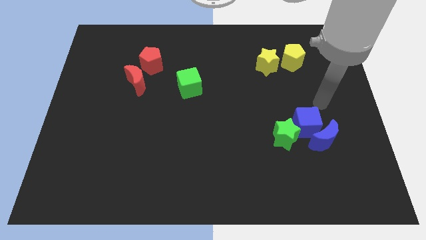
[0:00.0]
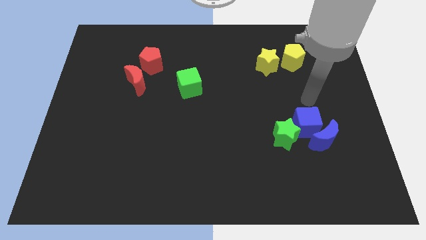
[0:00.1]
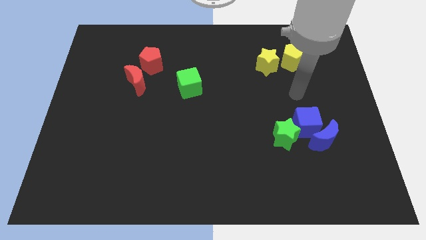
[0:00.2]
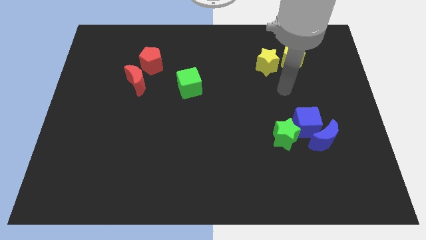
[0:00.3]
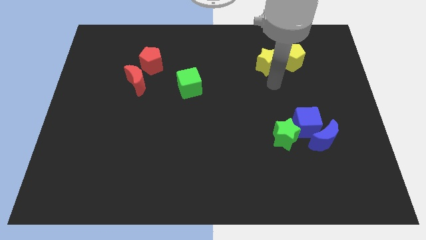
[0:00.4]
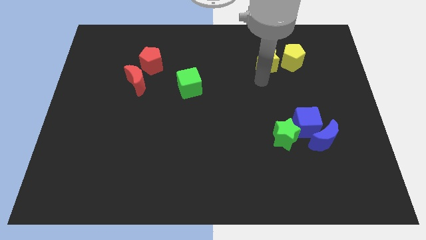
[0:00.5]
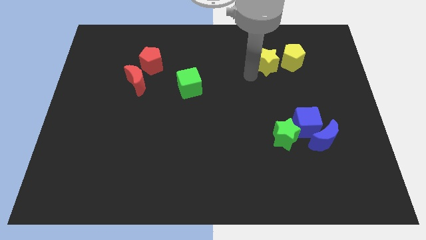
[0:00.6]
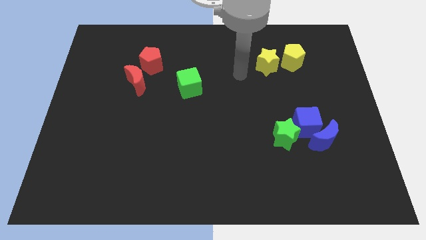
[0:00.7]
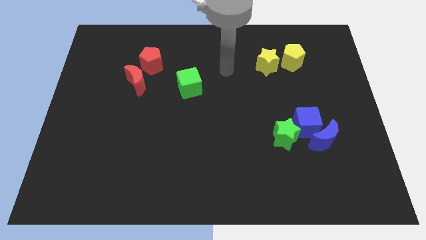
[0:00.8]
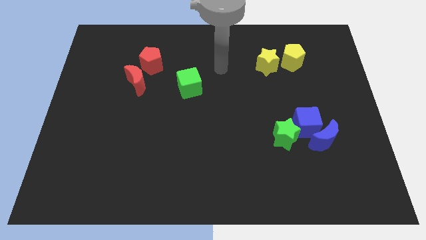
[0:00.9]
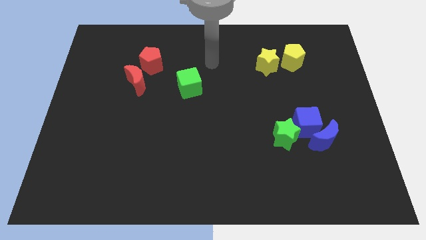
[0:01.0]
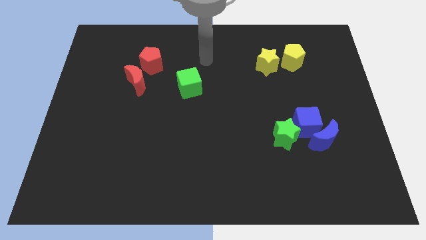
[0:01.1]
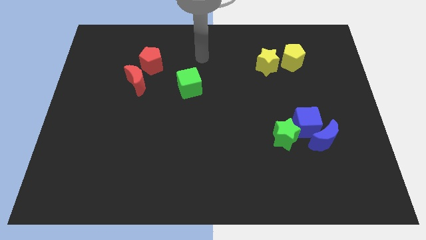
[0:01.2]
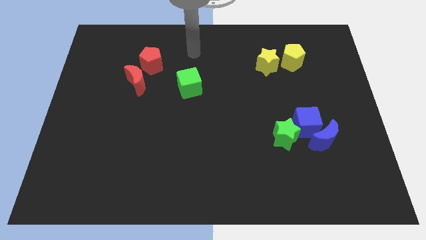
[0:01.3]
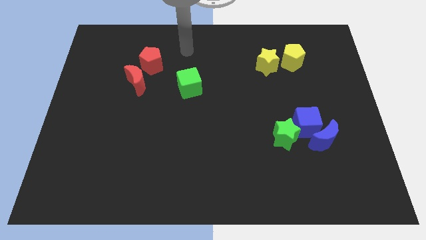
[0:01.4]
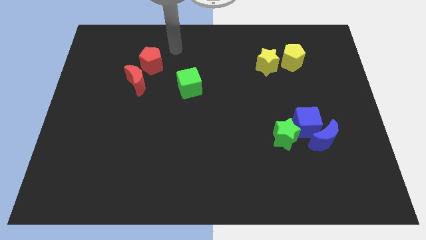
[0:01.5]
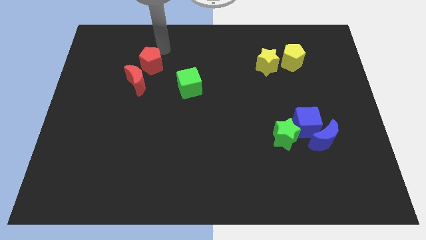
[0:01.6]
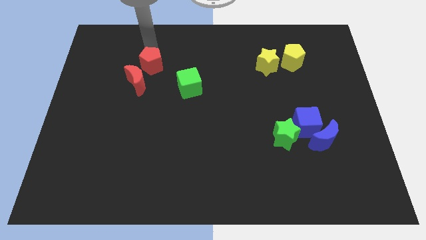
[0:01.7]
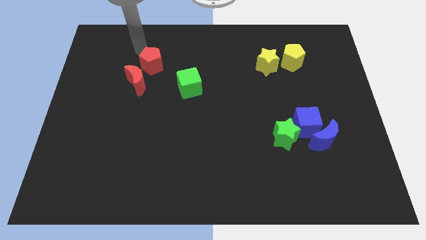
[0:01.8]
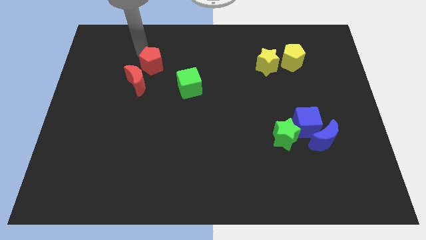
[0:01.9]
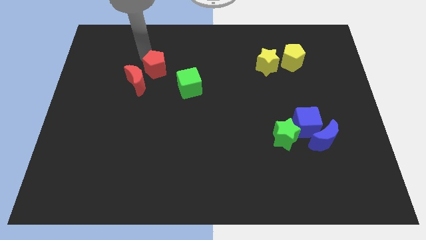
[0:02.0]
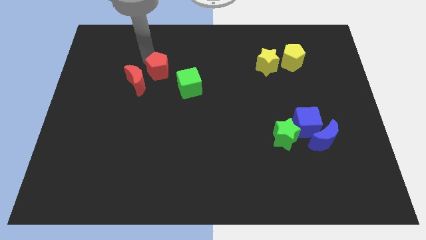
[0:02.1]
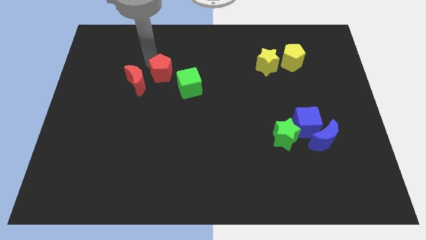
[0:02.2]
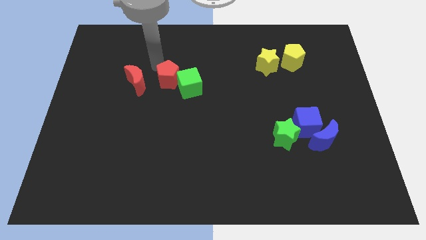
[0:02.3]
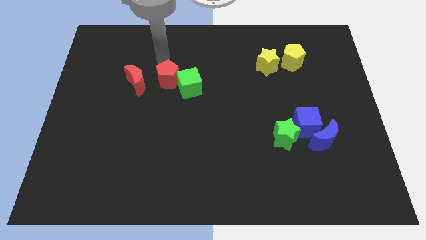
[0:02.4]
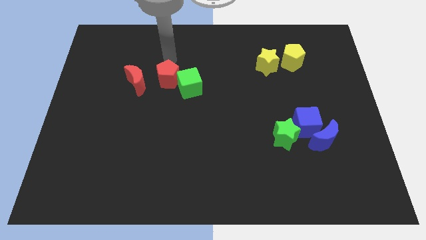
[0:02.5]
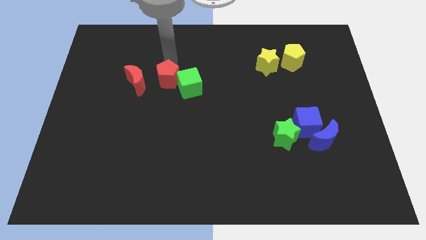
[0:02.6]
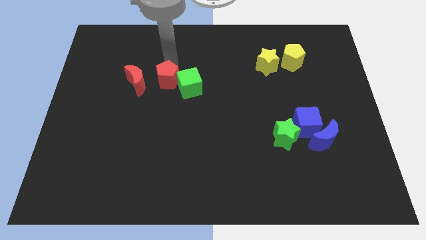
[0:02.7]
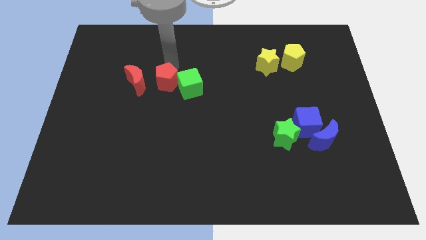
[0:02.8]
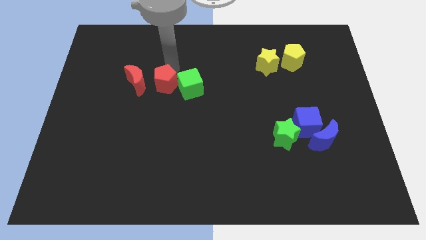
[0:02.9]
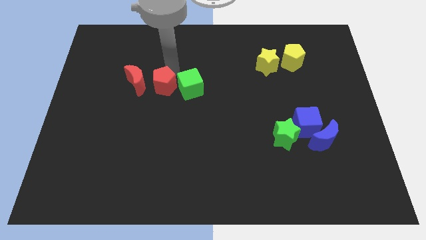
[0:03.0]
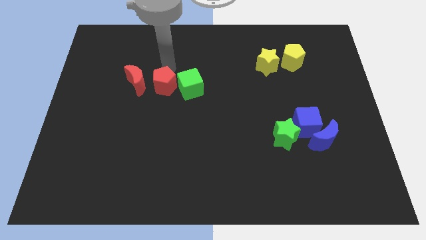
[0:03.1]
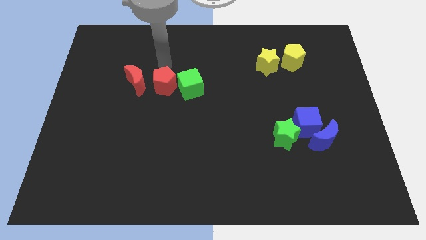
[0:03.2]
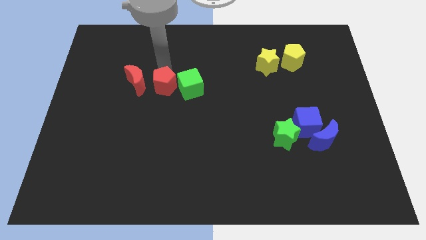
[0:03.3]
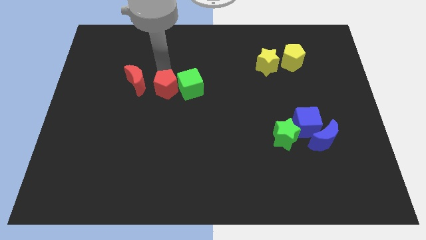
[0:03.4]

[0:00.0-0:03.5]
slide the red pentagon down a little bit

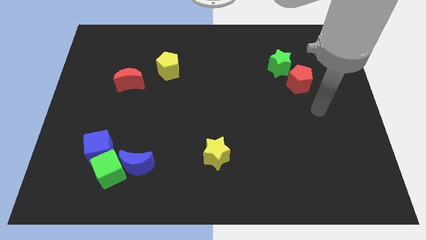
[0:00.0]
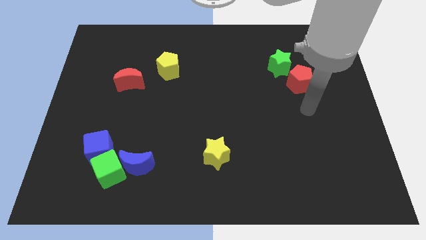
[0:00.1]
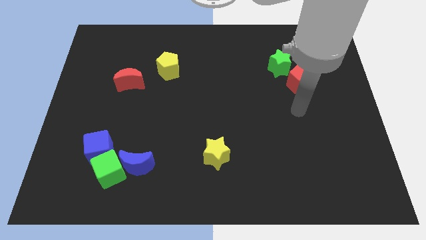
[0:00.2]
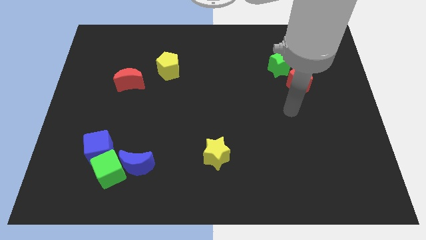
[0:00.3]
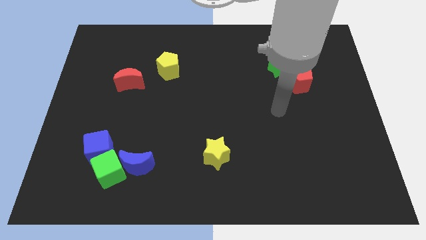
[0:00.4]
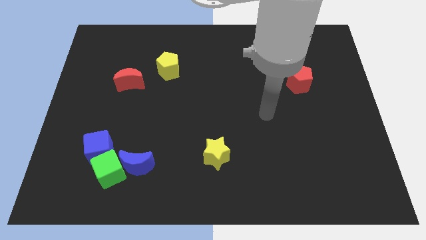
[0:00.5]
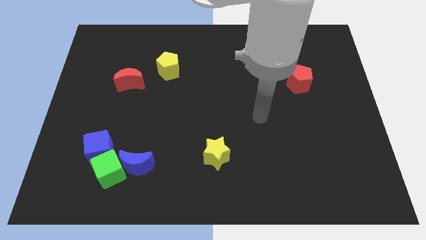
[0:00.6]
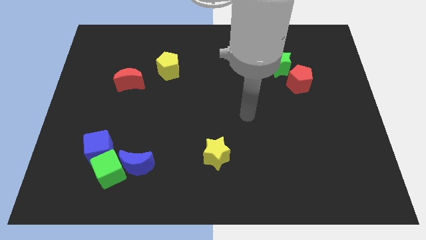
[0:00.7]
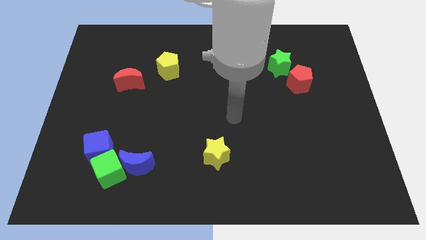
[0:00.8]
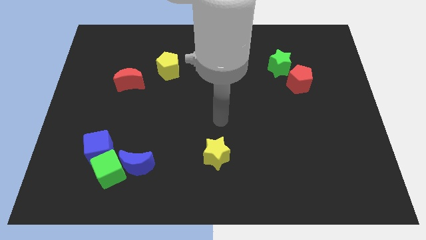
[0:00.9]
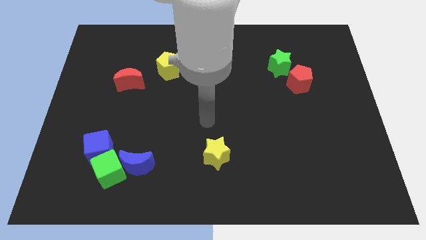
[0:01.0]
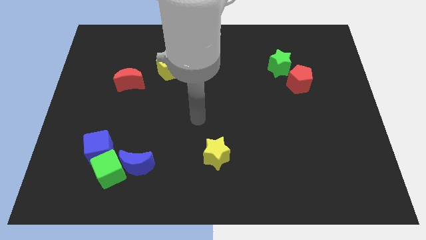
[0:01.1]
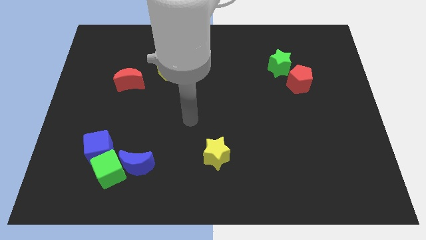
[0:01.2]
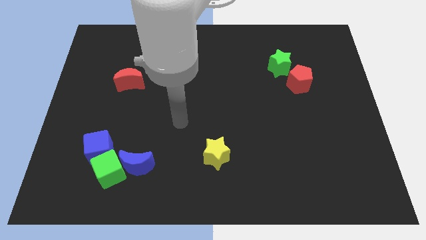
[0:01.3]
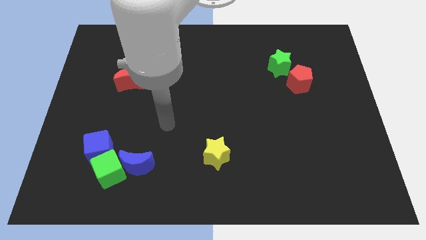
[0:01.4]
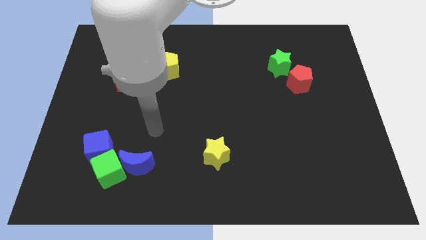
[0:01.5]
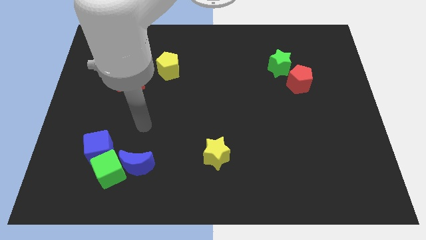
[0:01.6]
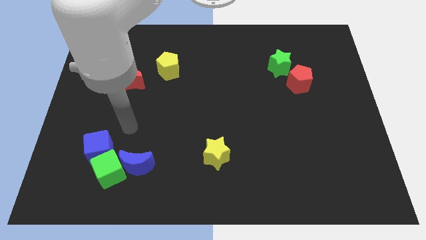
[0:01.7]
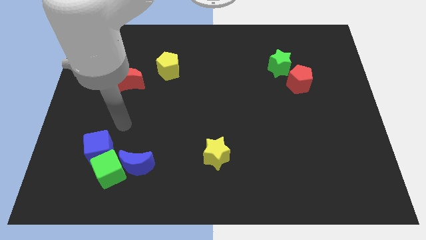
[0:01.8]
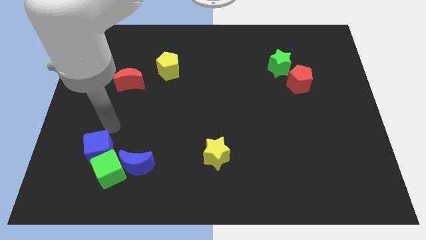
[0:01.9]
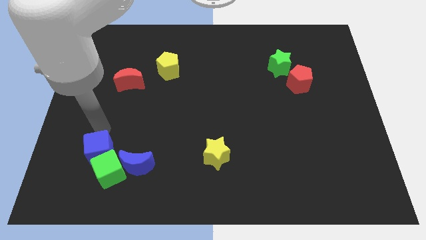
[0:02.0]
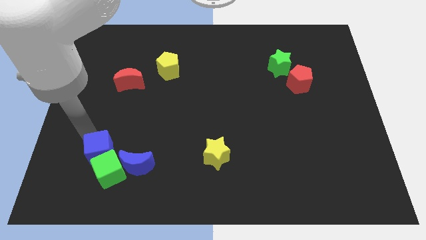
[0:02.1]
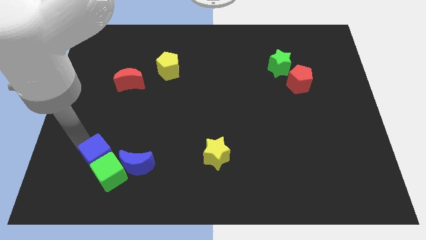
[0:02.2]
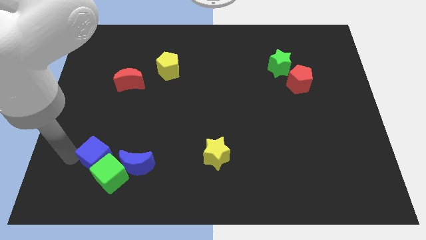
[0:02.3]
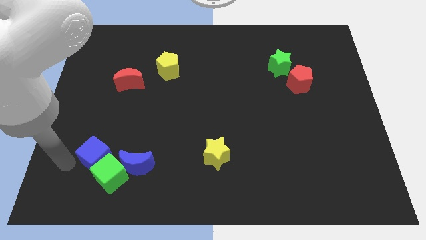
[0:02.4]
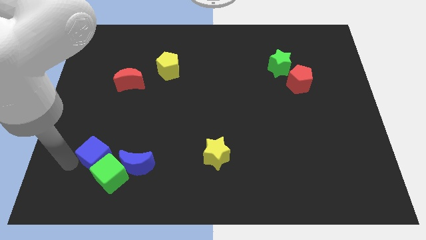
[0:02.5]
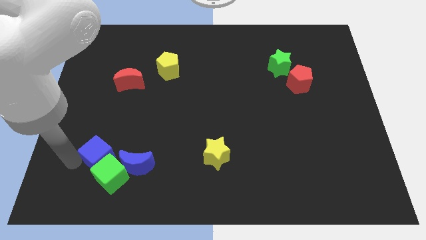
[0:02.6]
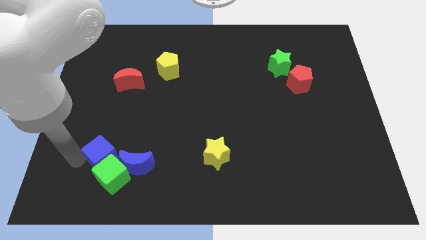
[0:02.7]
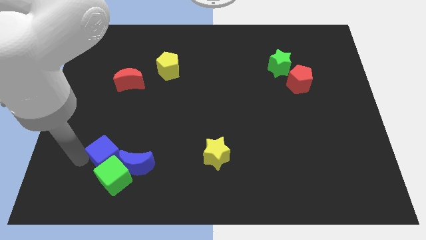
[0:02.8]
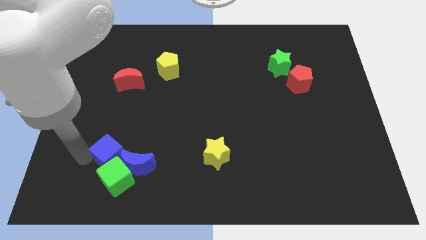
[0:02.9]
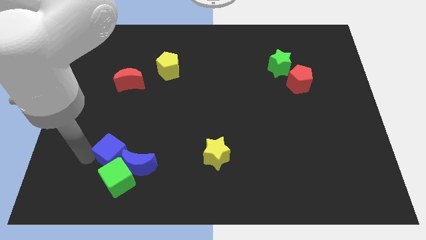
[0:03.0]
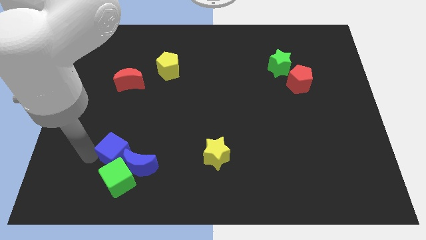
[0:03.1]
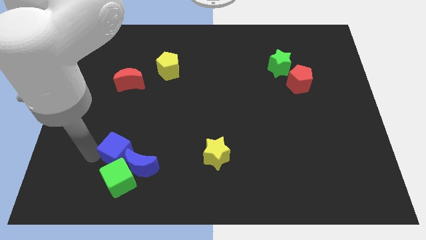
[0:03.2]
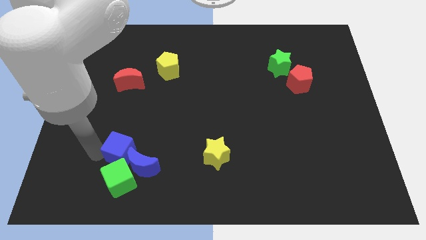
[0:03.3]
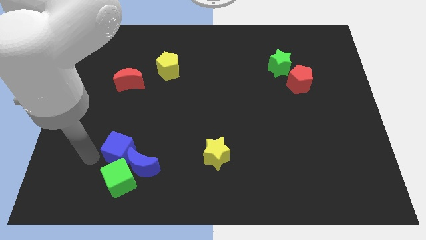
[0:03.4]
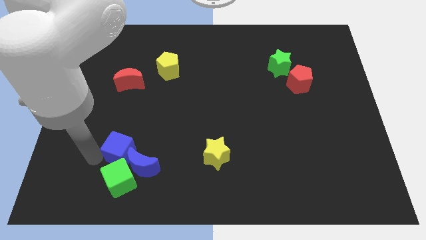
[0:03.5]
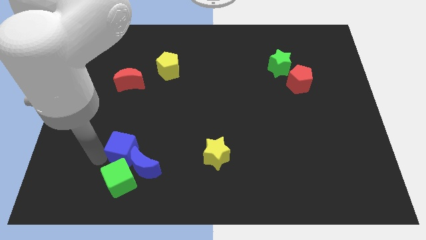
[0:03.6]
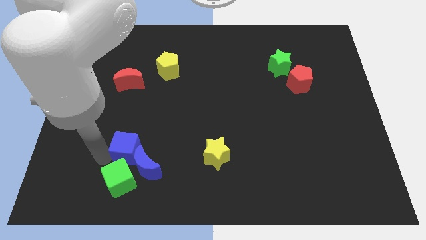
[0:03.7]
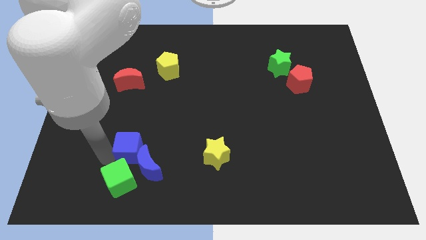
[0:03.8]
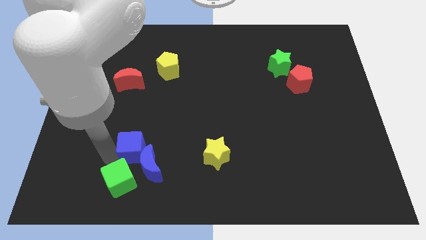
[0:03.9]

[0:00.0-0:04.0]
slightly push the blue cube right

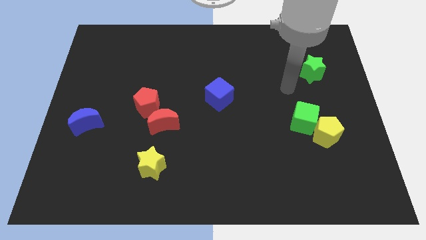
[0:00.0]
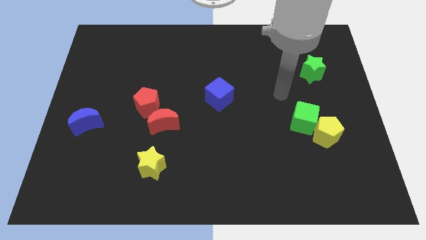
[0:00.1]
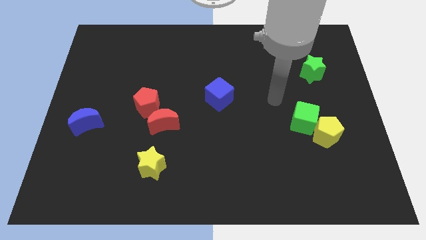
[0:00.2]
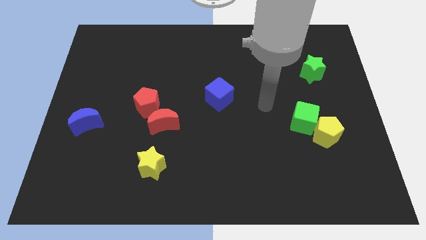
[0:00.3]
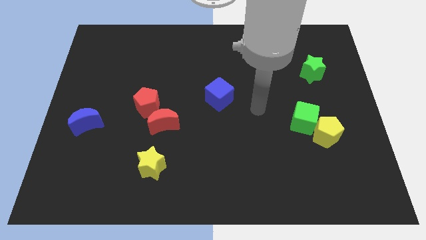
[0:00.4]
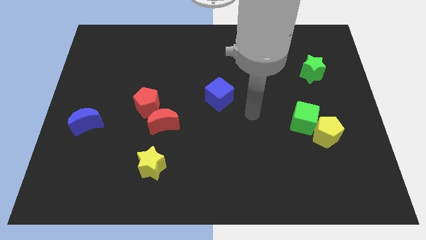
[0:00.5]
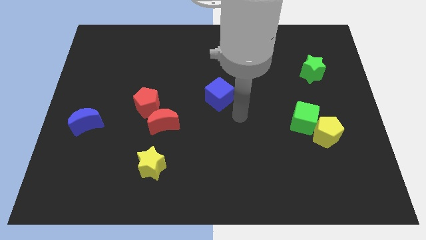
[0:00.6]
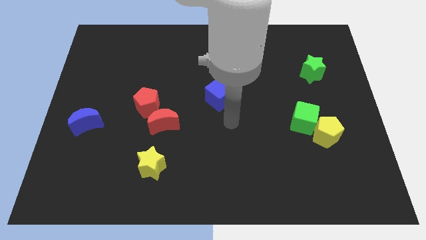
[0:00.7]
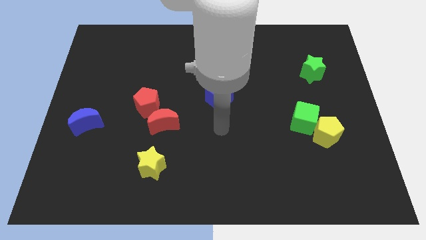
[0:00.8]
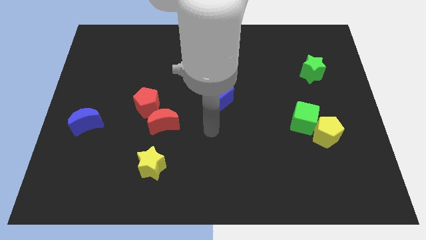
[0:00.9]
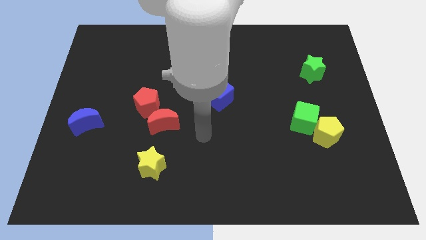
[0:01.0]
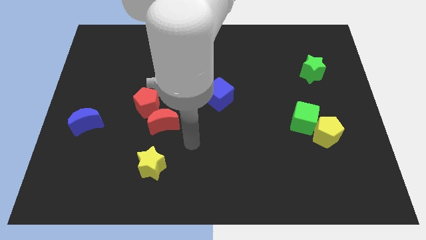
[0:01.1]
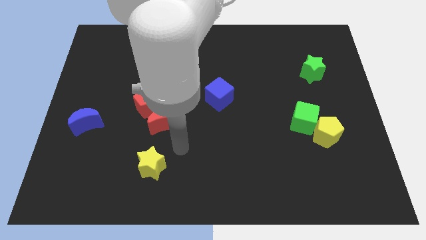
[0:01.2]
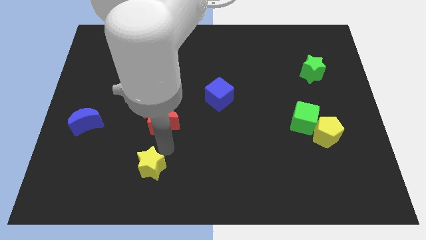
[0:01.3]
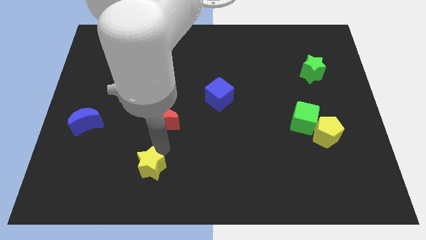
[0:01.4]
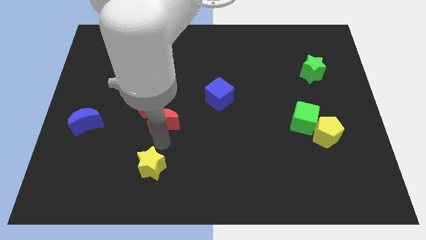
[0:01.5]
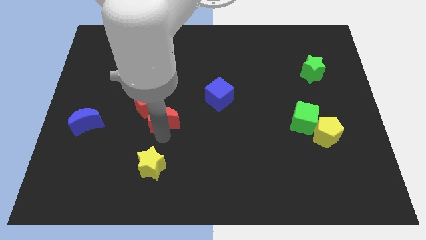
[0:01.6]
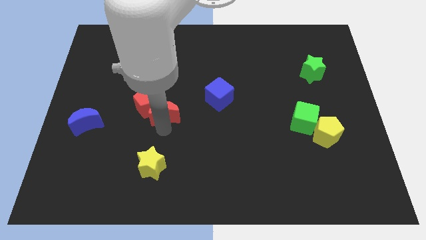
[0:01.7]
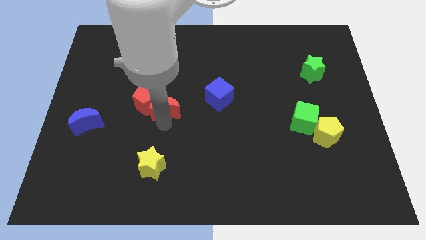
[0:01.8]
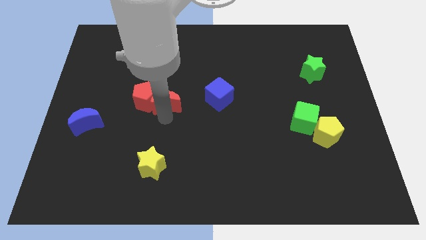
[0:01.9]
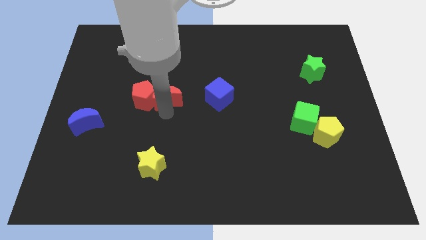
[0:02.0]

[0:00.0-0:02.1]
move the red moon a bit upwards
